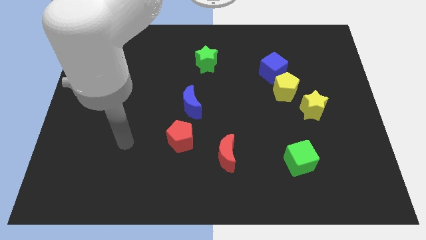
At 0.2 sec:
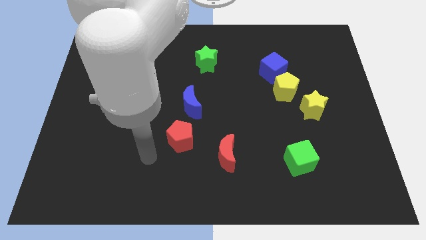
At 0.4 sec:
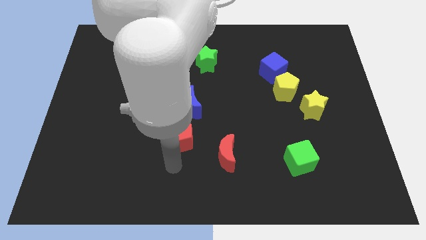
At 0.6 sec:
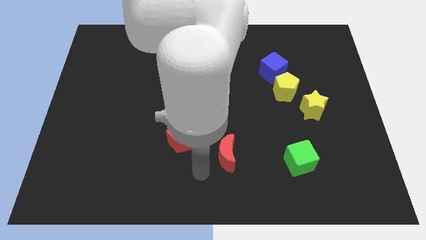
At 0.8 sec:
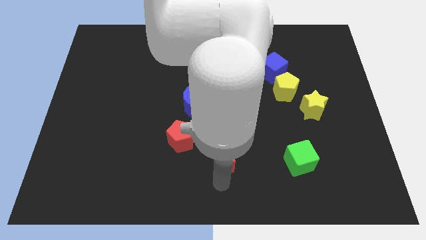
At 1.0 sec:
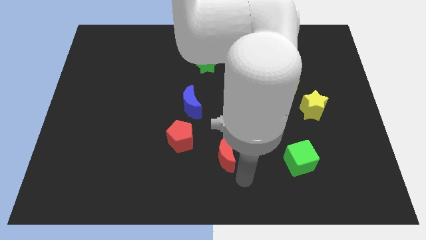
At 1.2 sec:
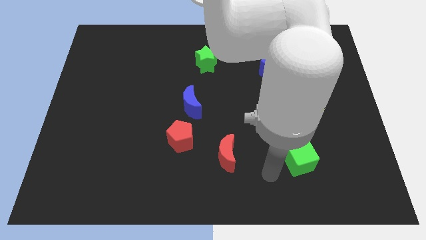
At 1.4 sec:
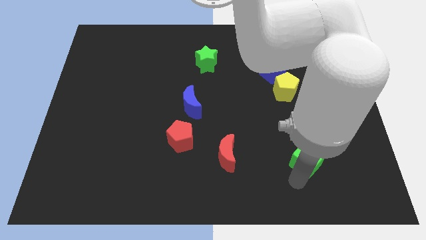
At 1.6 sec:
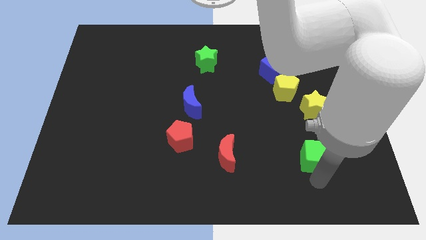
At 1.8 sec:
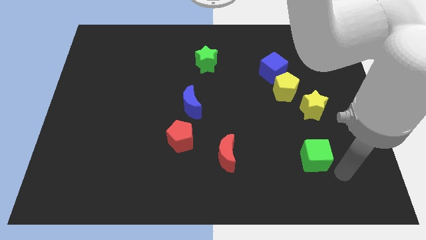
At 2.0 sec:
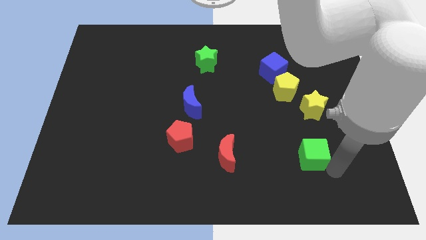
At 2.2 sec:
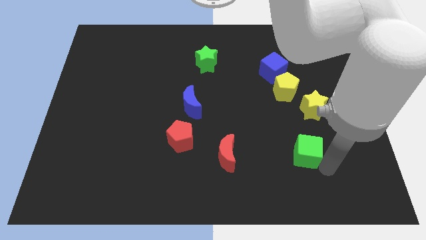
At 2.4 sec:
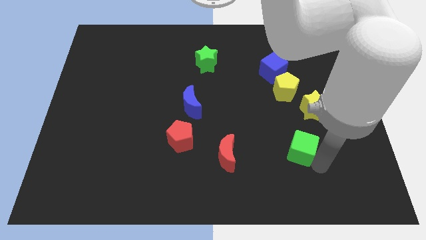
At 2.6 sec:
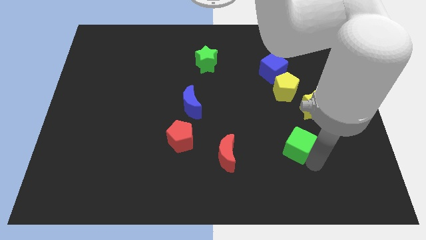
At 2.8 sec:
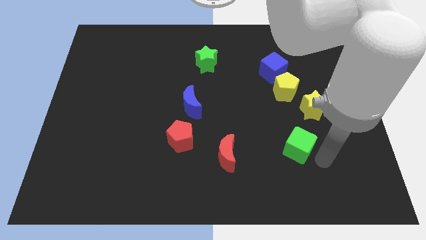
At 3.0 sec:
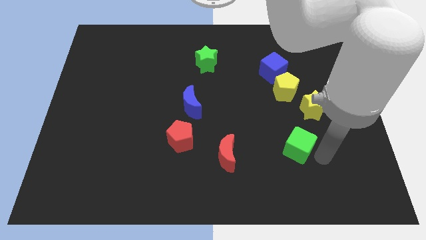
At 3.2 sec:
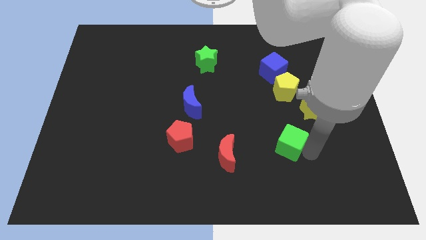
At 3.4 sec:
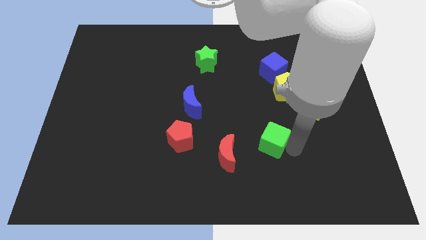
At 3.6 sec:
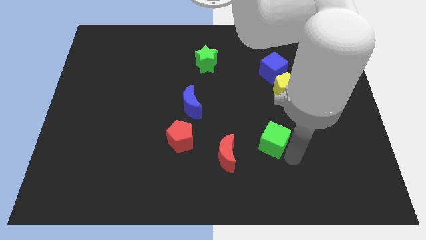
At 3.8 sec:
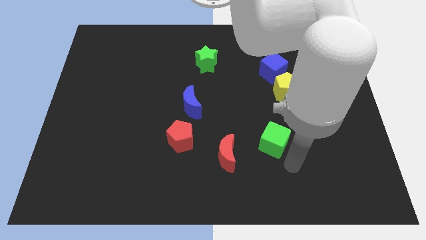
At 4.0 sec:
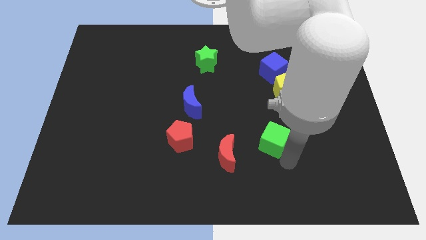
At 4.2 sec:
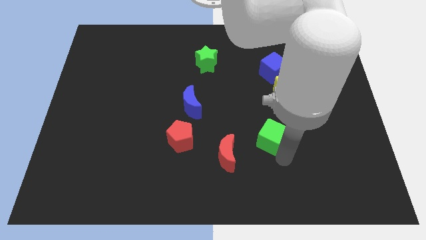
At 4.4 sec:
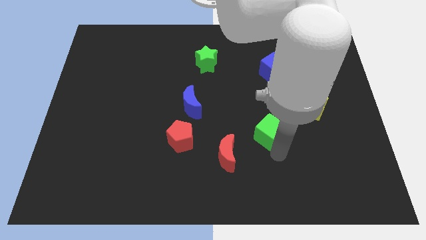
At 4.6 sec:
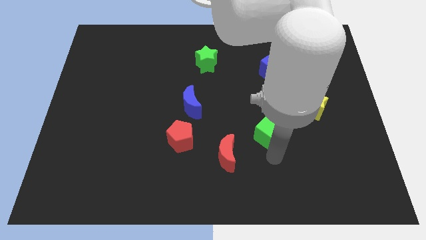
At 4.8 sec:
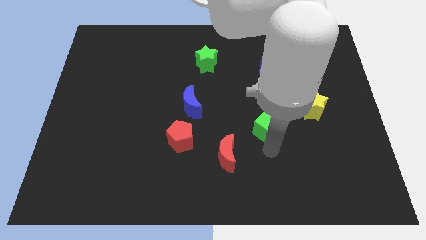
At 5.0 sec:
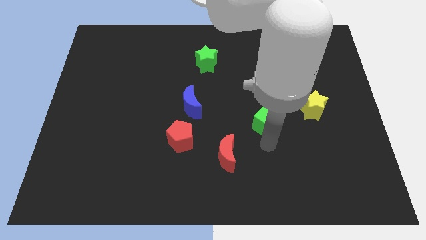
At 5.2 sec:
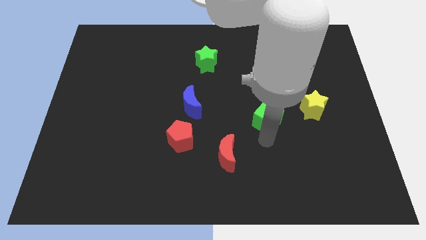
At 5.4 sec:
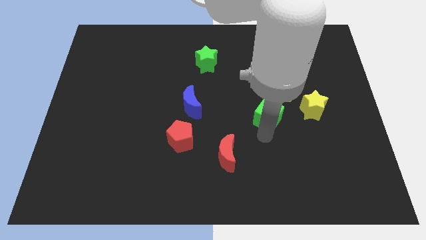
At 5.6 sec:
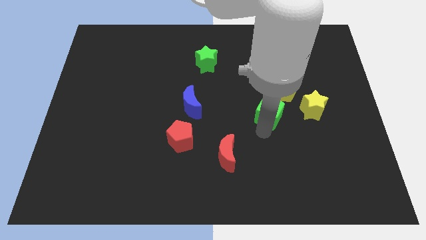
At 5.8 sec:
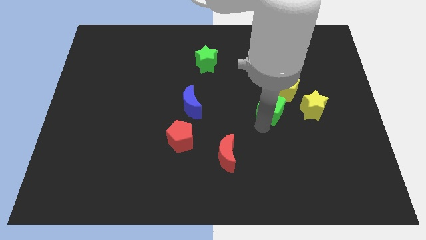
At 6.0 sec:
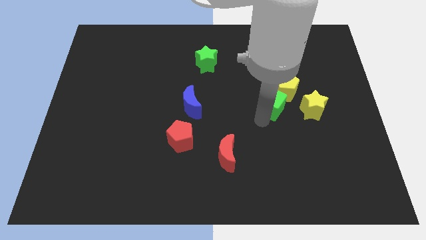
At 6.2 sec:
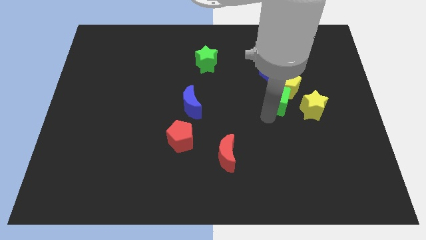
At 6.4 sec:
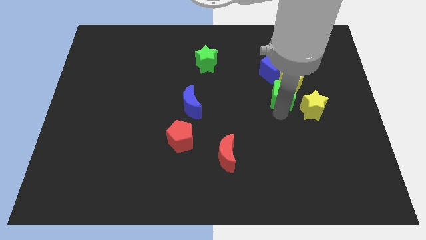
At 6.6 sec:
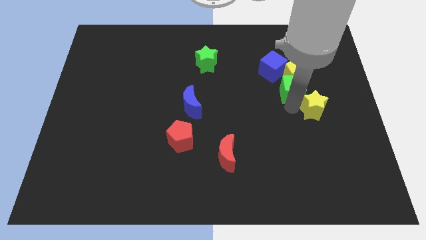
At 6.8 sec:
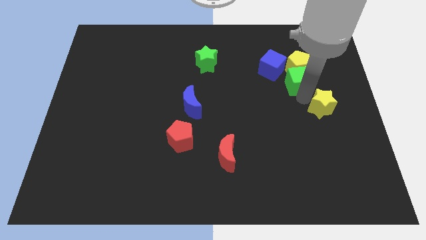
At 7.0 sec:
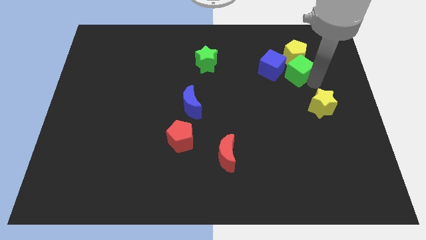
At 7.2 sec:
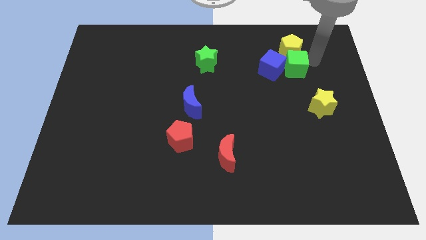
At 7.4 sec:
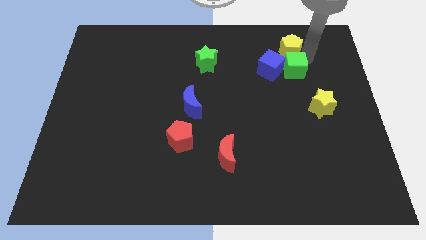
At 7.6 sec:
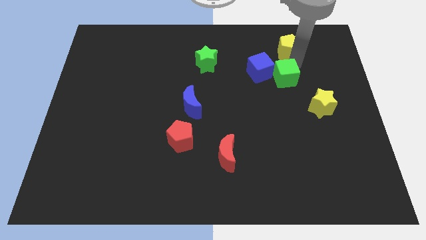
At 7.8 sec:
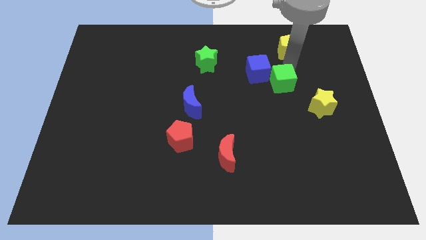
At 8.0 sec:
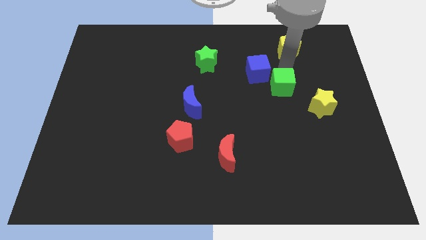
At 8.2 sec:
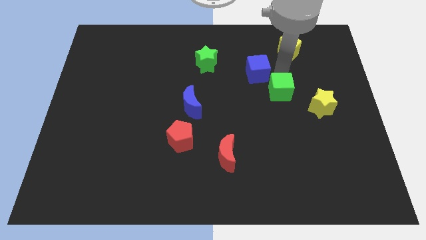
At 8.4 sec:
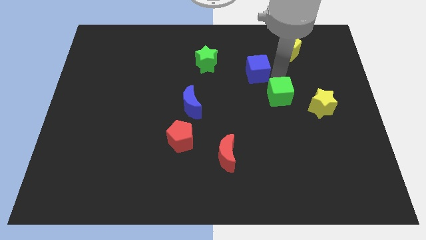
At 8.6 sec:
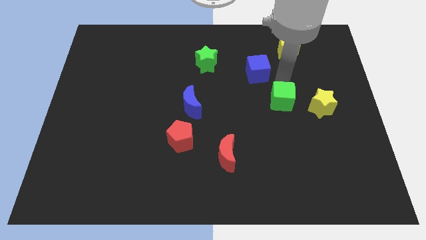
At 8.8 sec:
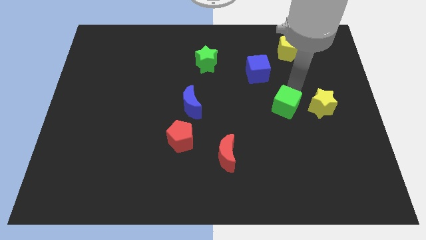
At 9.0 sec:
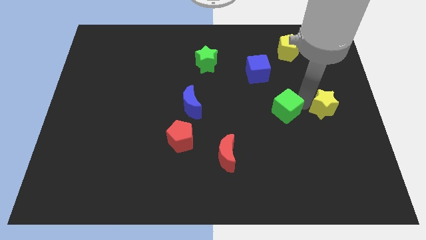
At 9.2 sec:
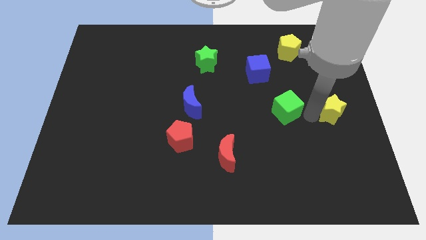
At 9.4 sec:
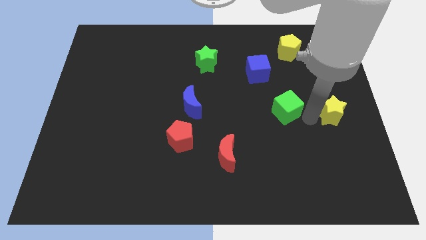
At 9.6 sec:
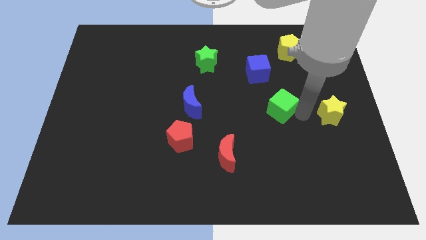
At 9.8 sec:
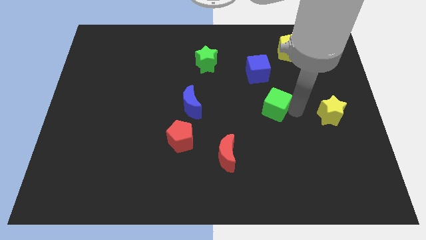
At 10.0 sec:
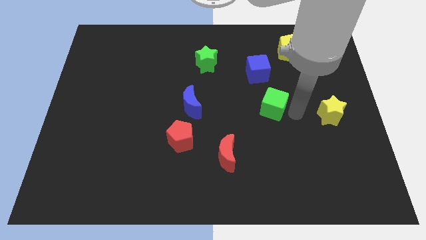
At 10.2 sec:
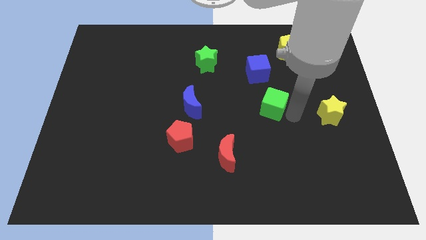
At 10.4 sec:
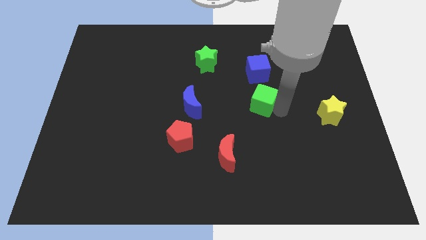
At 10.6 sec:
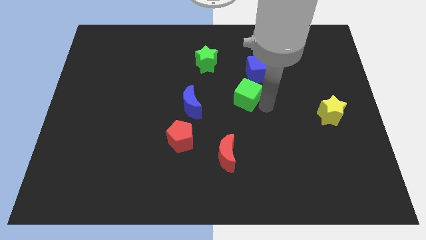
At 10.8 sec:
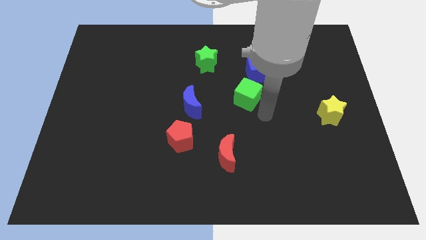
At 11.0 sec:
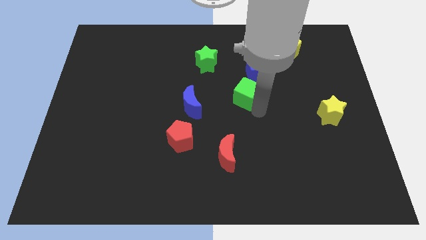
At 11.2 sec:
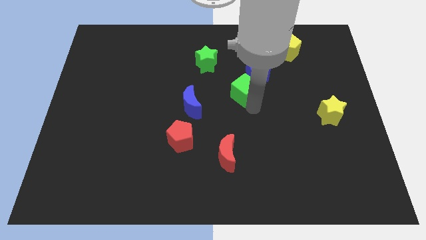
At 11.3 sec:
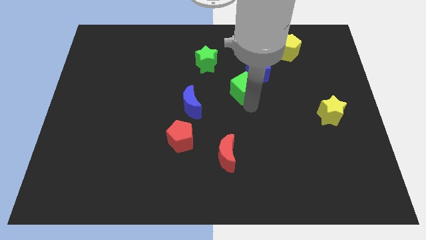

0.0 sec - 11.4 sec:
push the green cube diagonally down and to the right of the green star

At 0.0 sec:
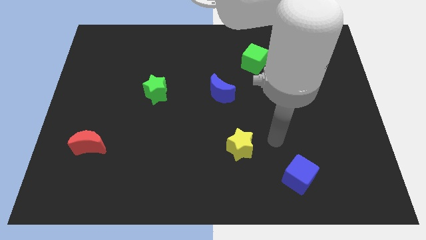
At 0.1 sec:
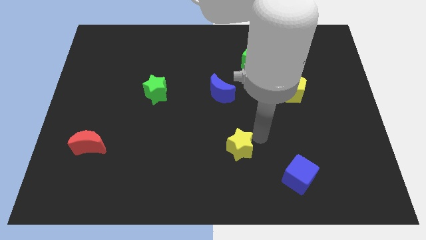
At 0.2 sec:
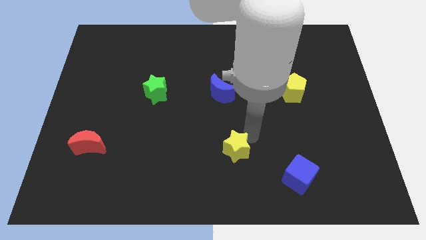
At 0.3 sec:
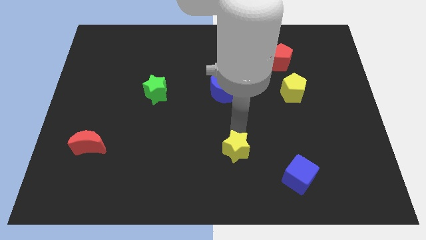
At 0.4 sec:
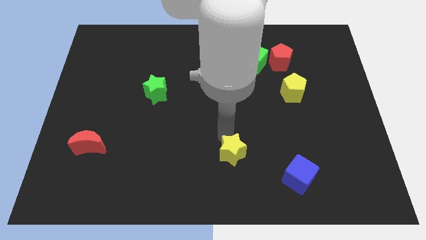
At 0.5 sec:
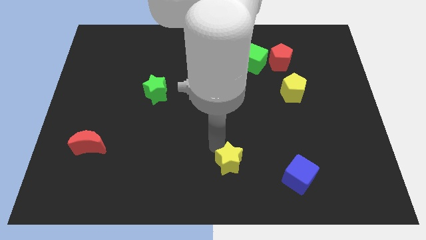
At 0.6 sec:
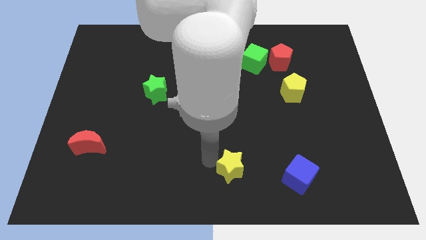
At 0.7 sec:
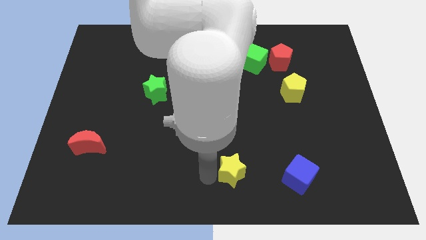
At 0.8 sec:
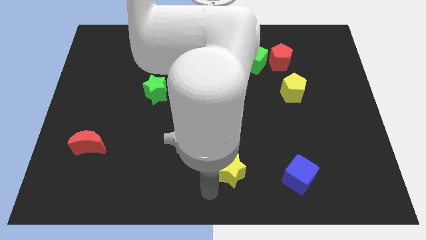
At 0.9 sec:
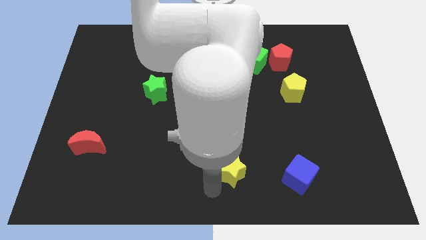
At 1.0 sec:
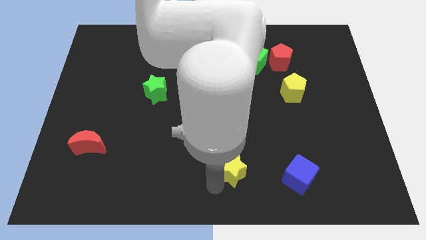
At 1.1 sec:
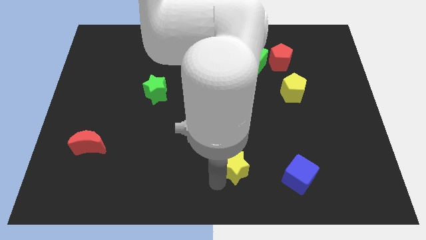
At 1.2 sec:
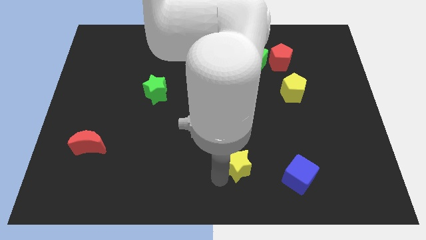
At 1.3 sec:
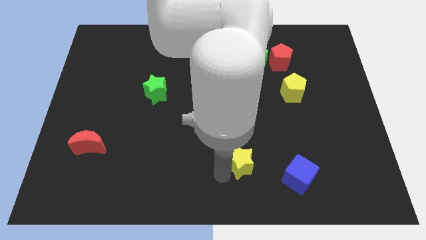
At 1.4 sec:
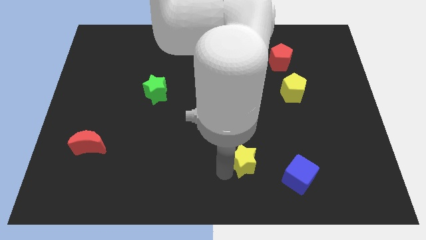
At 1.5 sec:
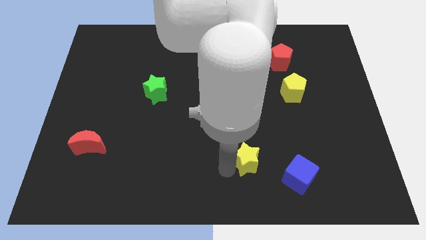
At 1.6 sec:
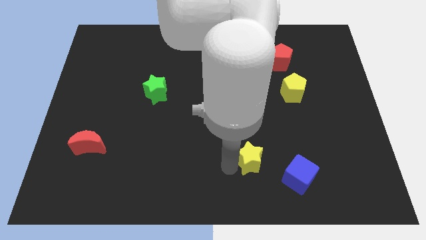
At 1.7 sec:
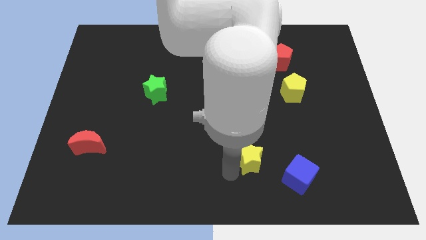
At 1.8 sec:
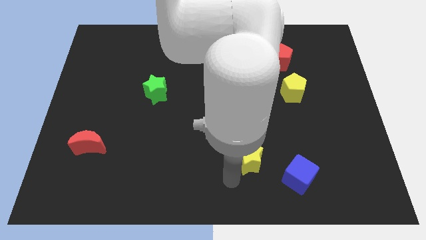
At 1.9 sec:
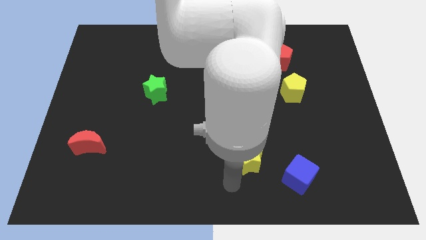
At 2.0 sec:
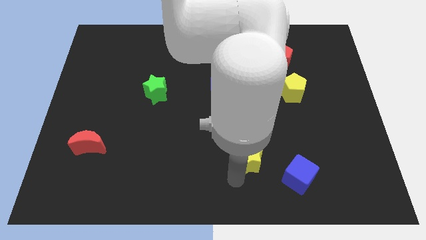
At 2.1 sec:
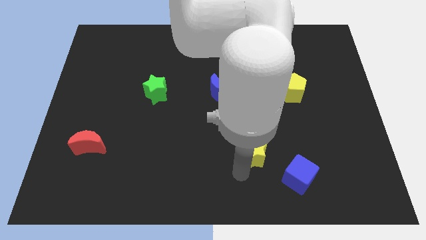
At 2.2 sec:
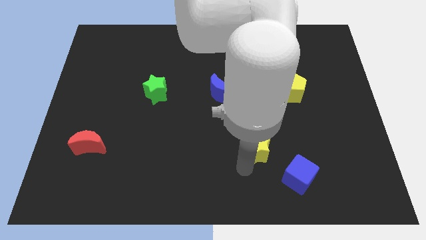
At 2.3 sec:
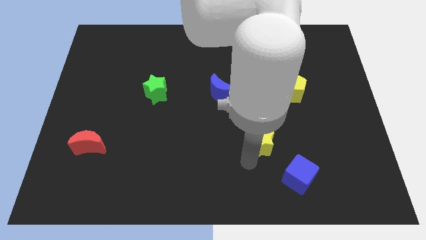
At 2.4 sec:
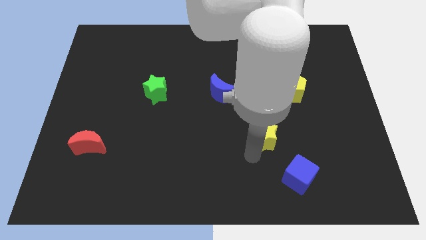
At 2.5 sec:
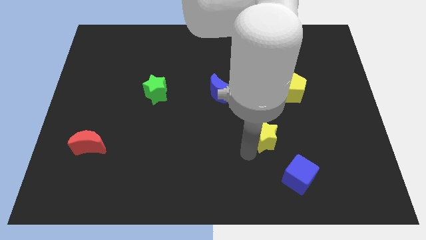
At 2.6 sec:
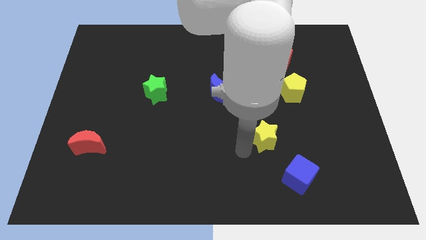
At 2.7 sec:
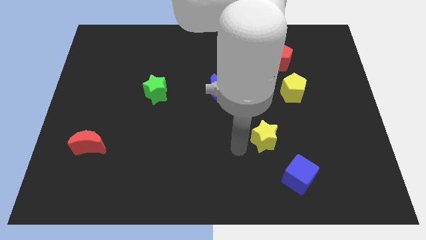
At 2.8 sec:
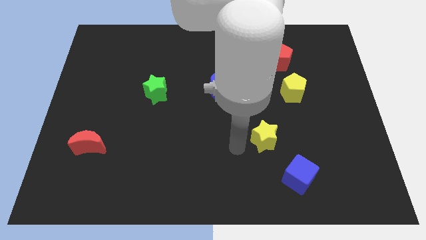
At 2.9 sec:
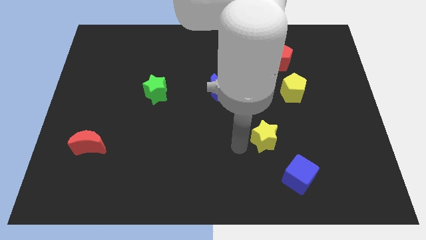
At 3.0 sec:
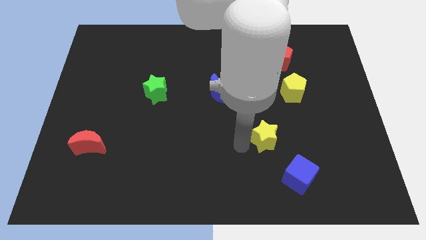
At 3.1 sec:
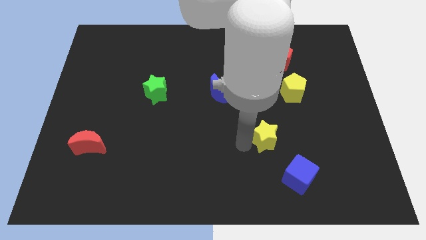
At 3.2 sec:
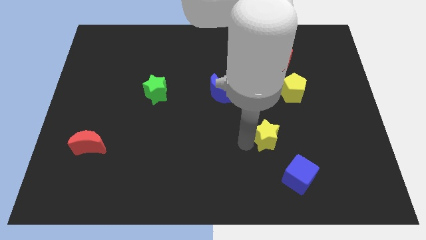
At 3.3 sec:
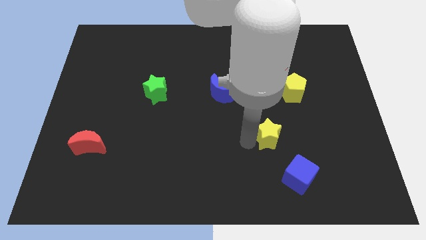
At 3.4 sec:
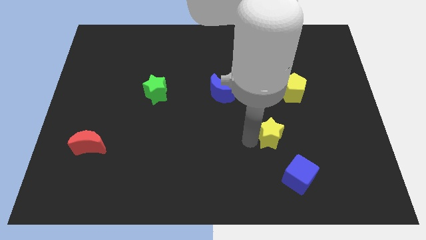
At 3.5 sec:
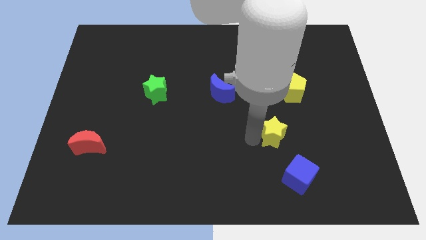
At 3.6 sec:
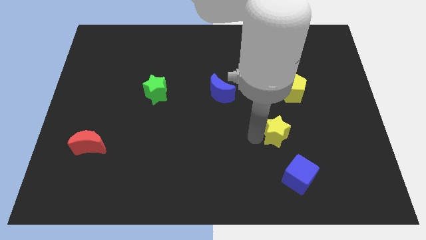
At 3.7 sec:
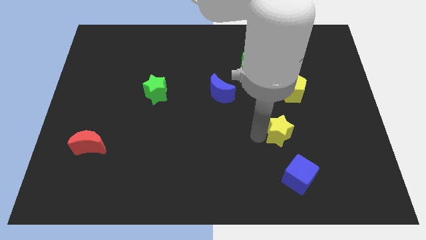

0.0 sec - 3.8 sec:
move the yellow star below the yellow pentagon
